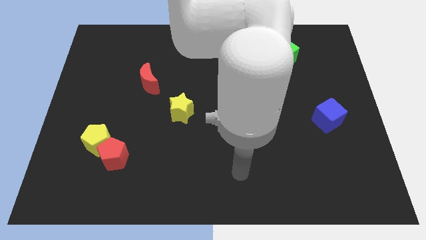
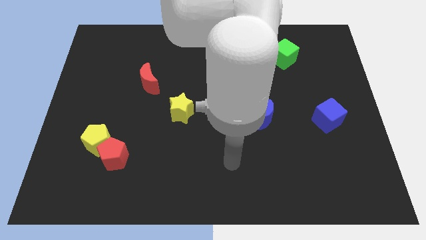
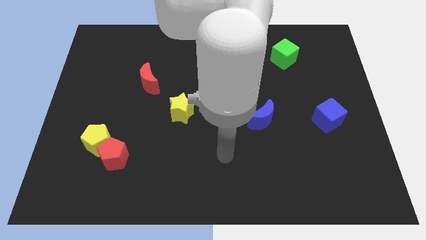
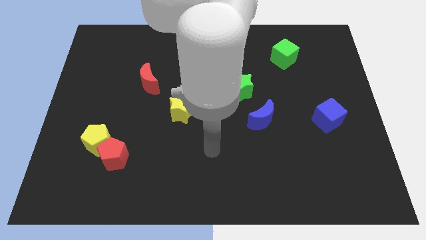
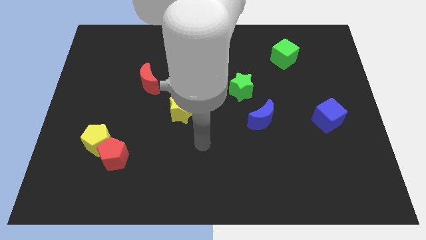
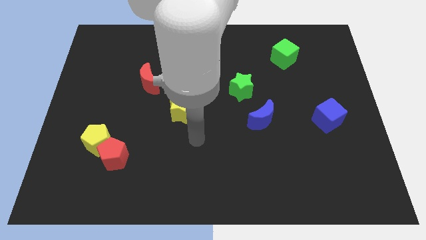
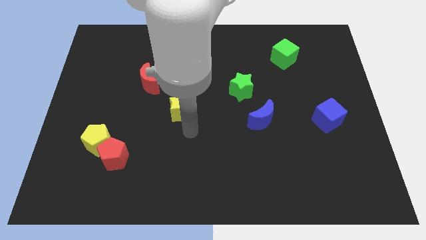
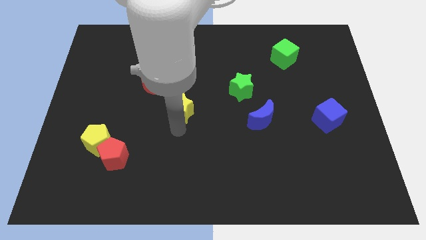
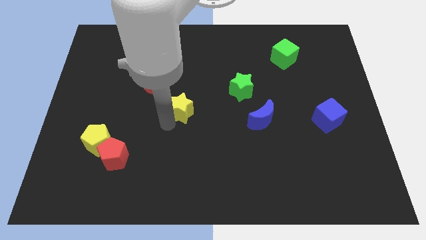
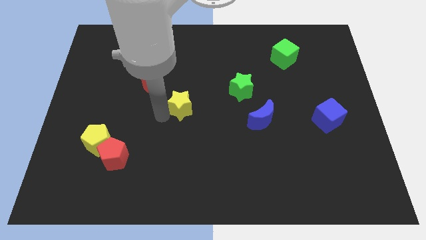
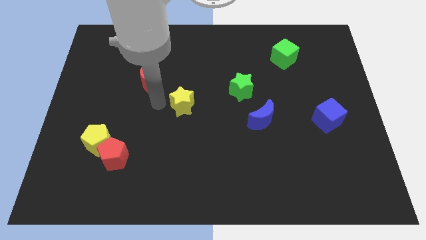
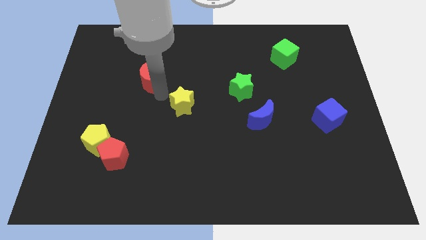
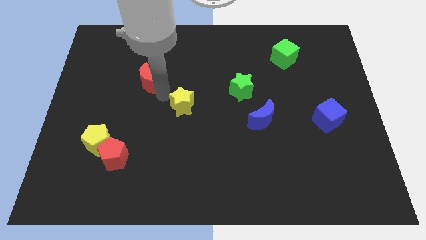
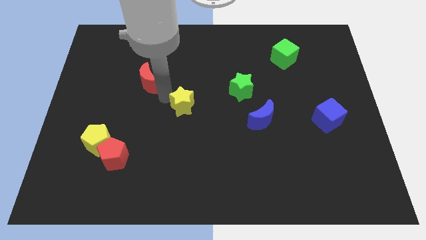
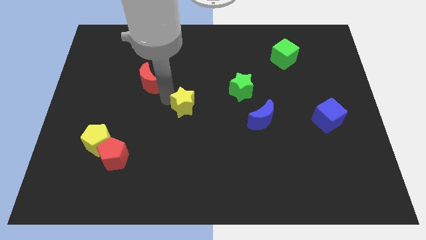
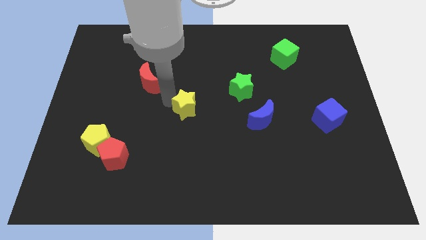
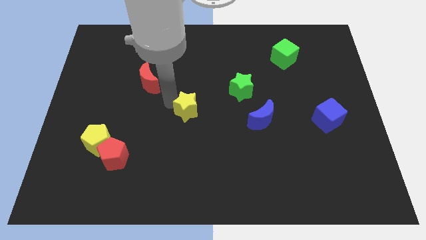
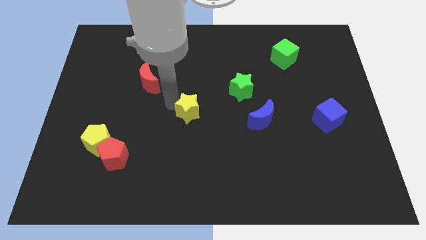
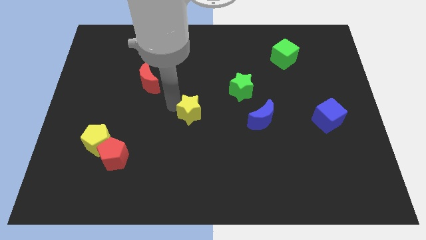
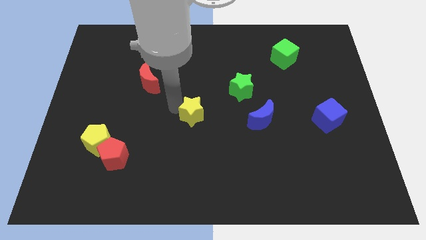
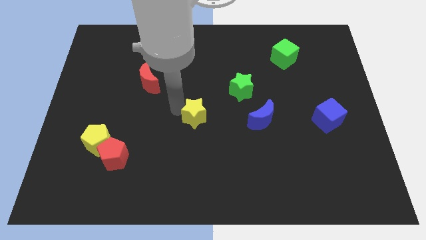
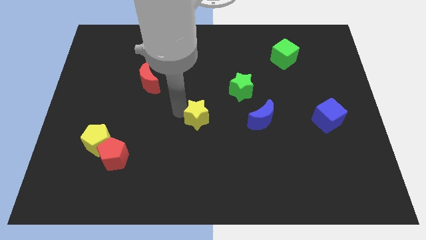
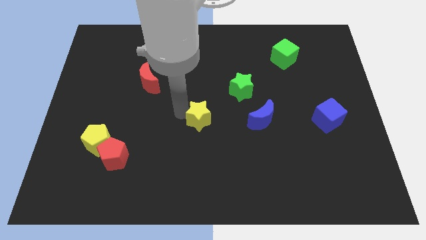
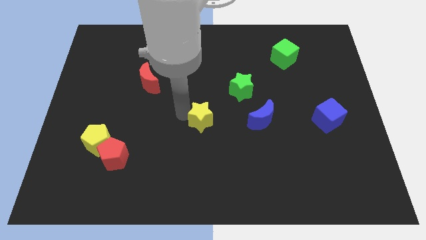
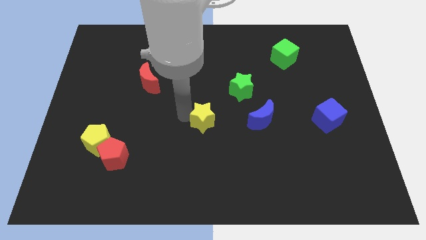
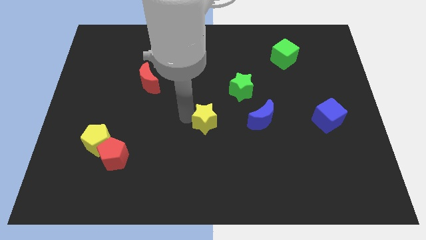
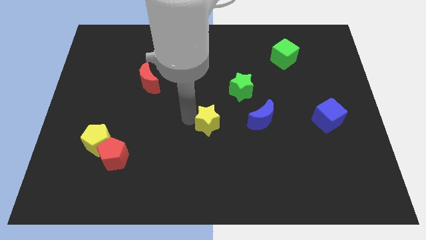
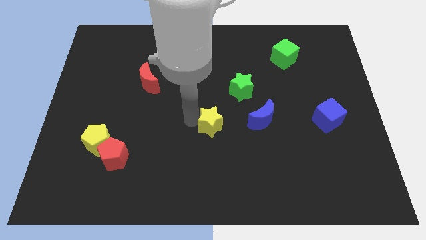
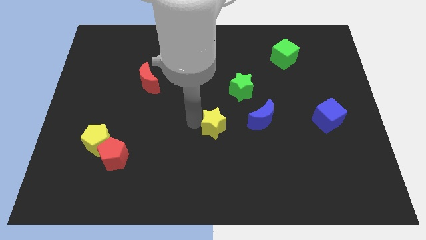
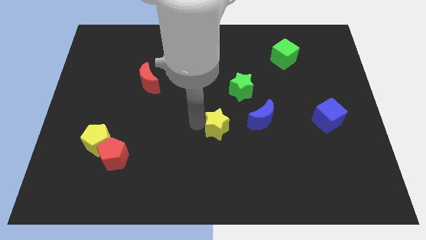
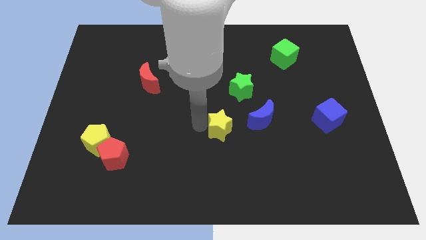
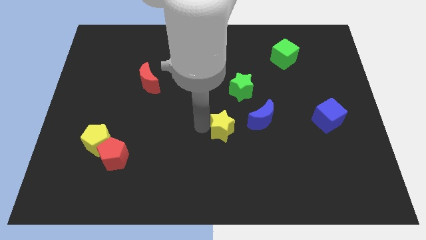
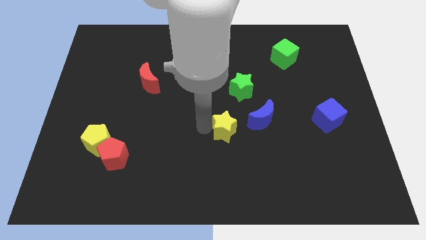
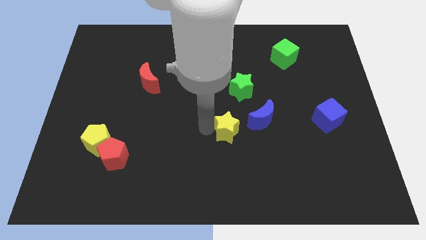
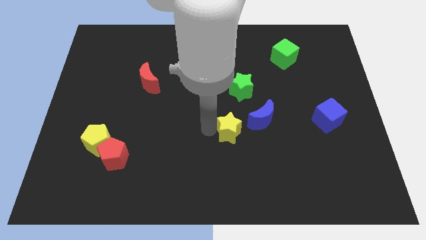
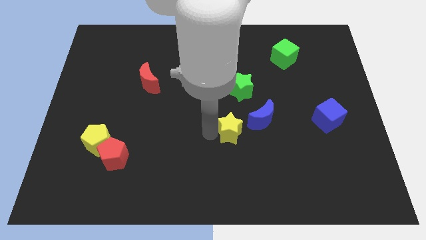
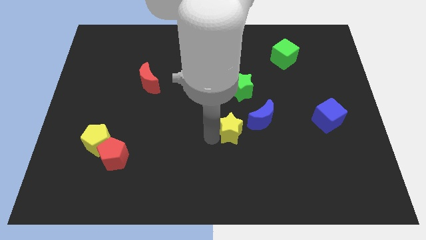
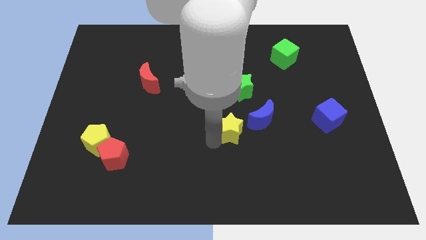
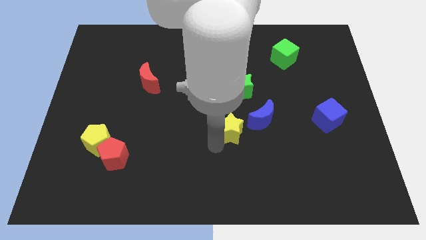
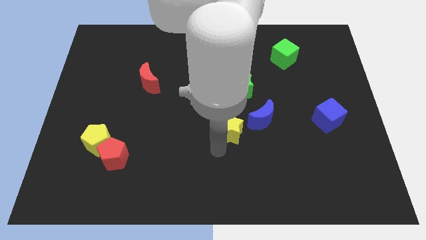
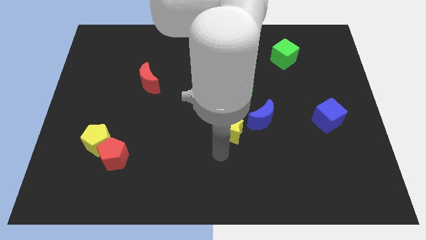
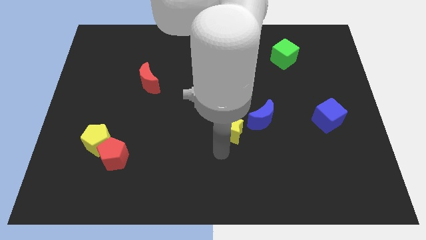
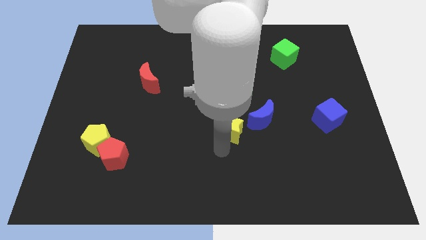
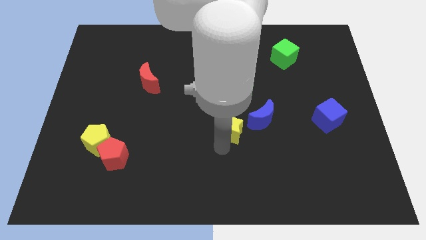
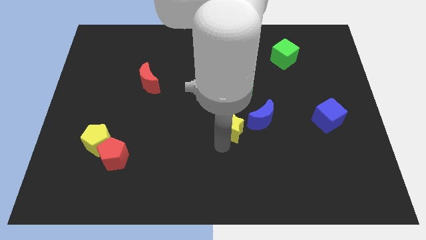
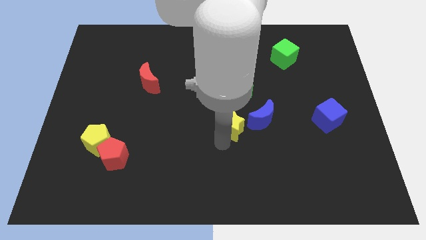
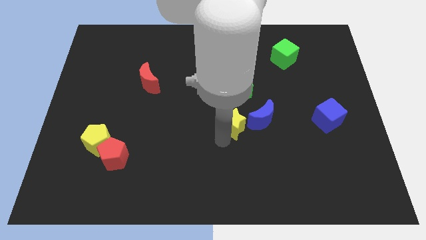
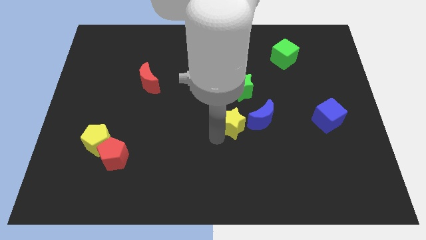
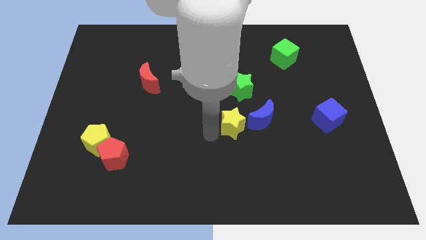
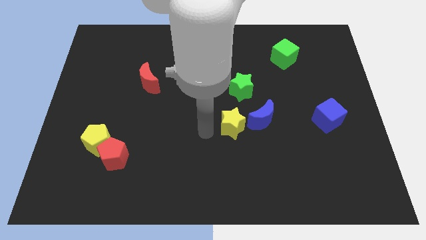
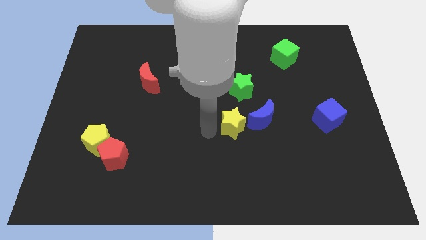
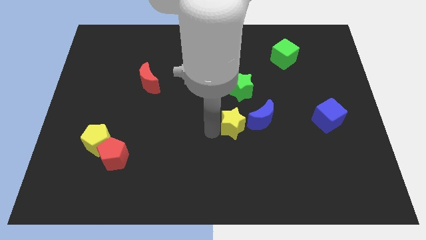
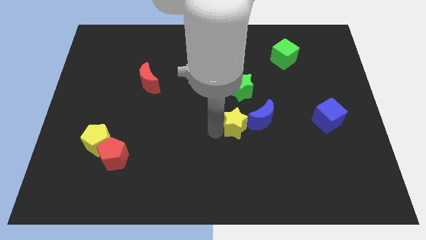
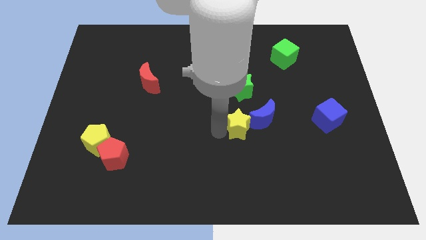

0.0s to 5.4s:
put the yellow star towards the blue moon

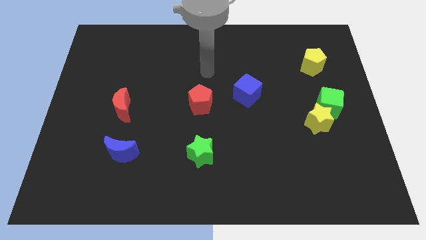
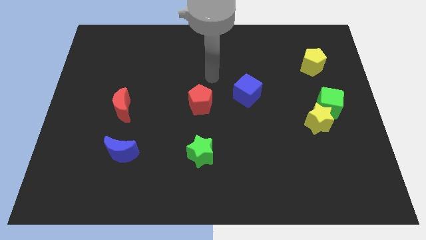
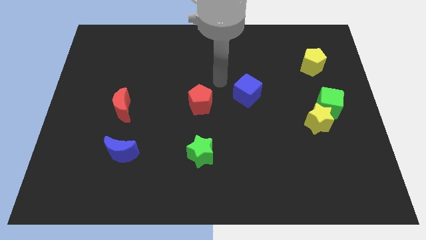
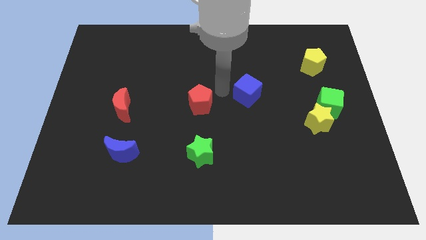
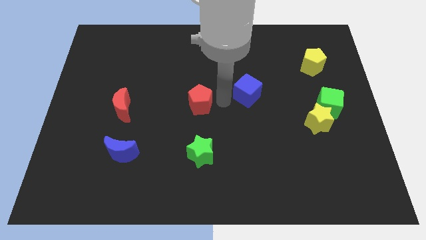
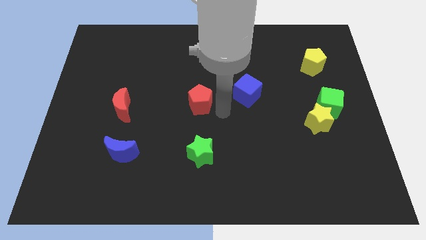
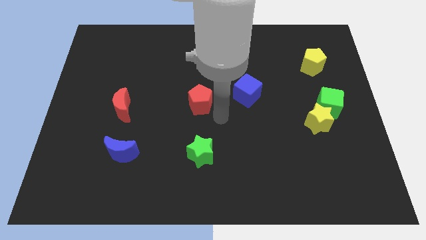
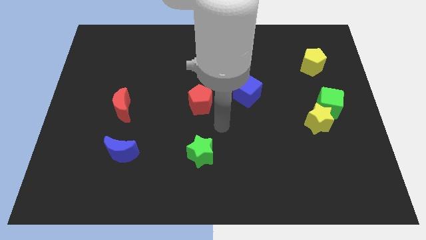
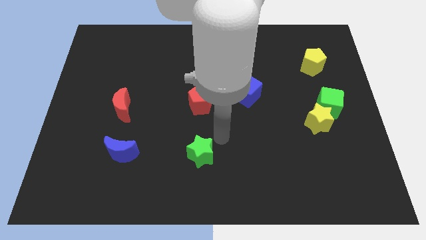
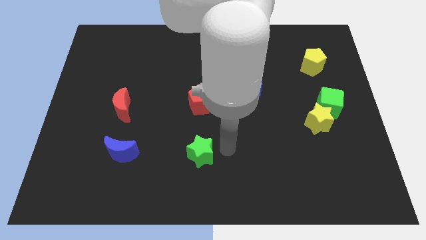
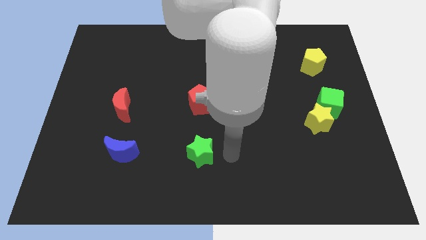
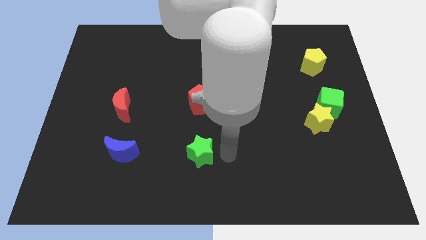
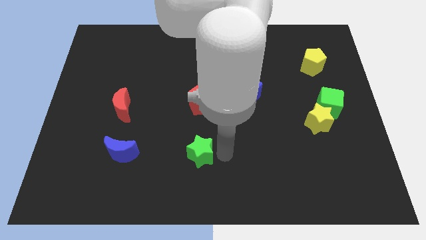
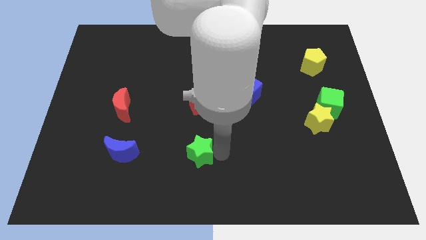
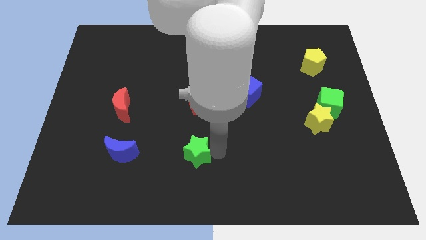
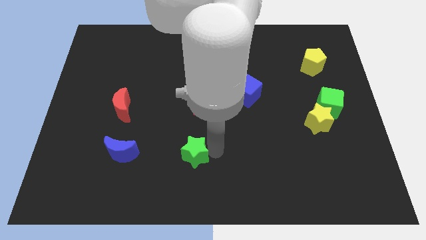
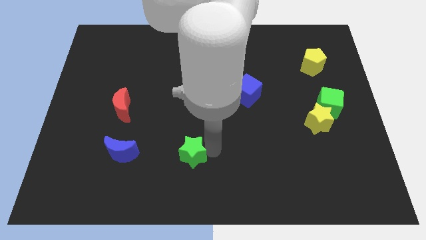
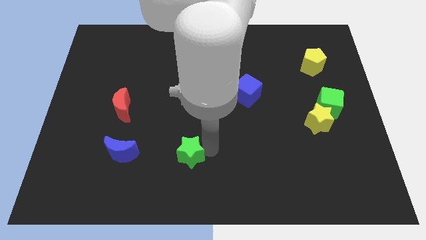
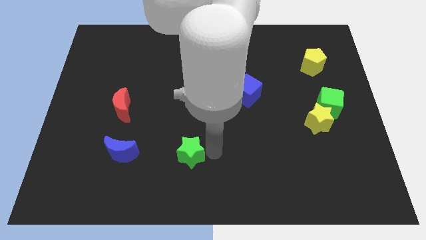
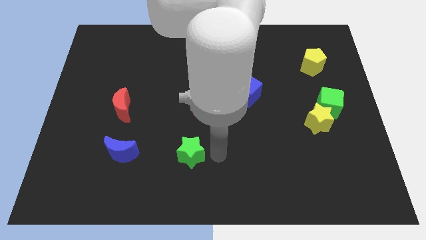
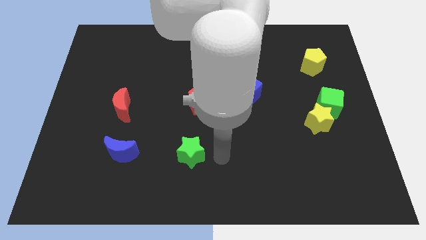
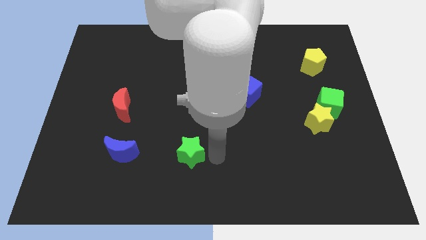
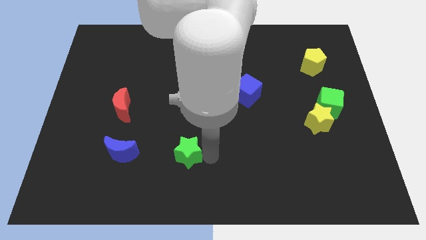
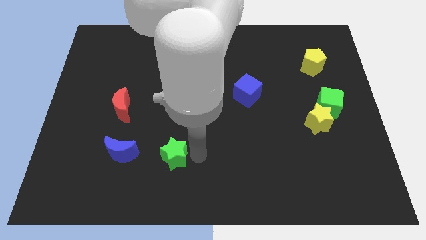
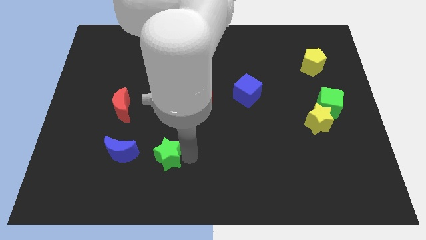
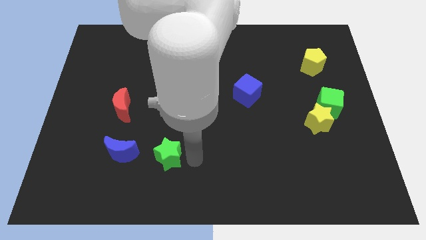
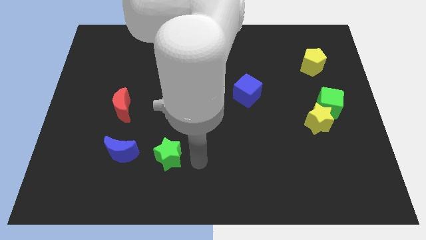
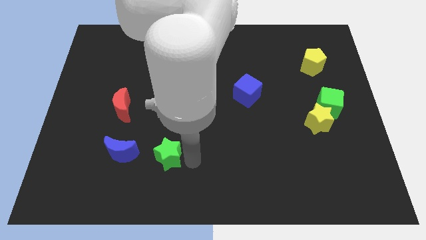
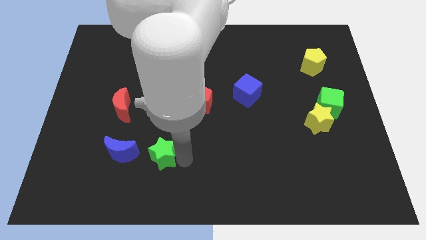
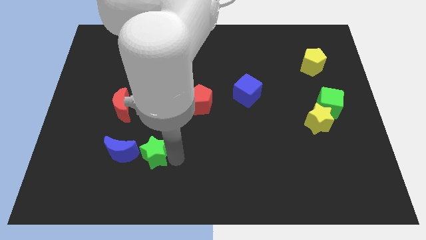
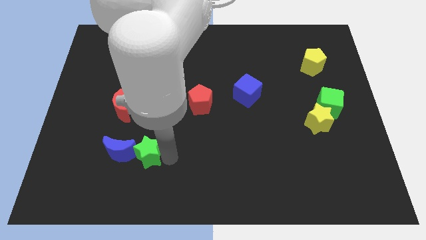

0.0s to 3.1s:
put the green star next to the blue moon
